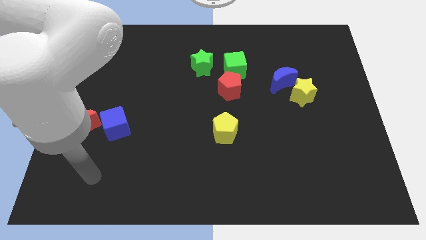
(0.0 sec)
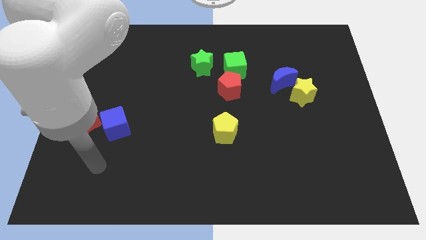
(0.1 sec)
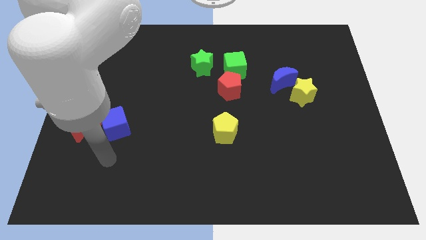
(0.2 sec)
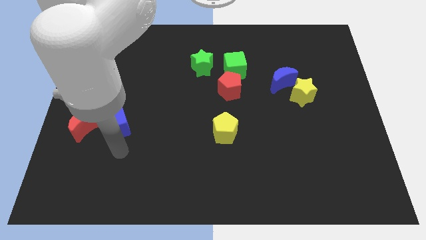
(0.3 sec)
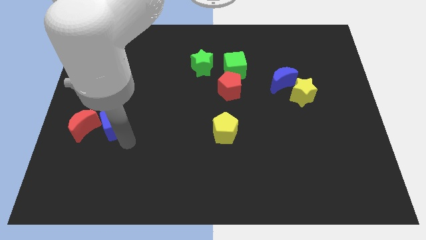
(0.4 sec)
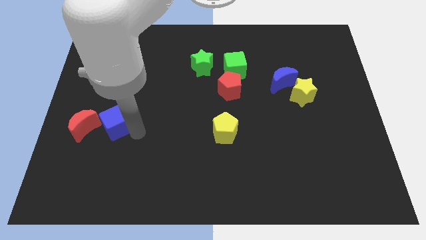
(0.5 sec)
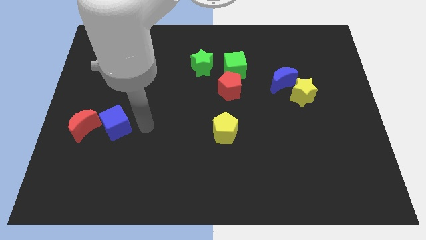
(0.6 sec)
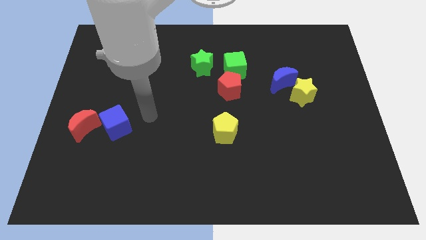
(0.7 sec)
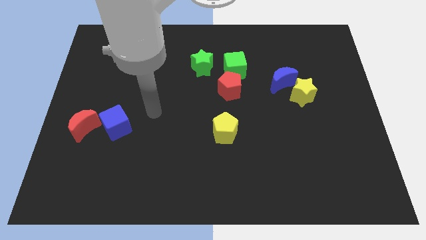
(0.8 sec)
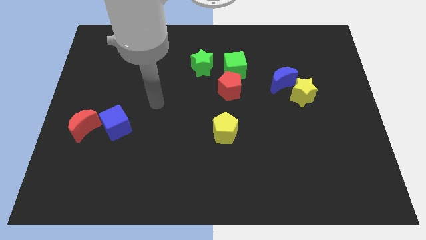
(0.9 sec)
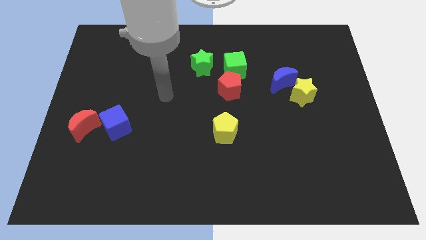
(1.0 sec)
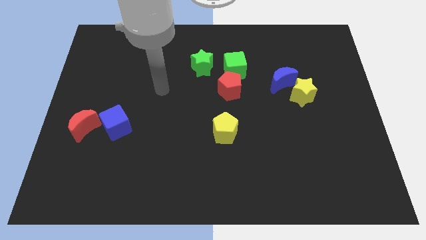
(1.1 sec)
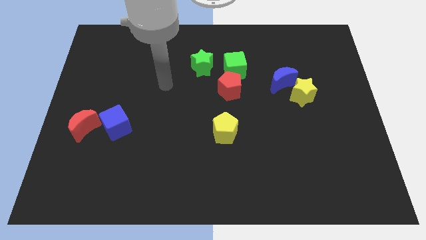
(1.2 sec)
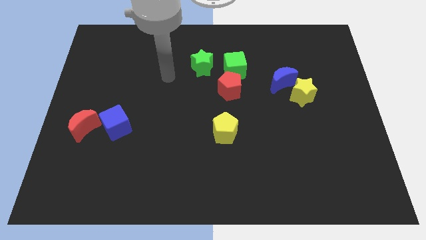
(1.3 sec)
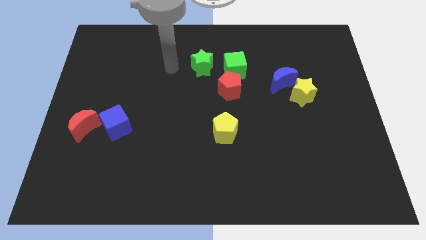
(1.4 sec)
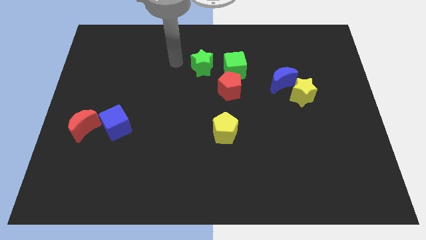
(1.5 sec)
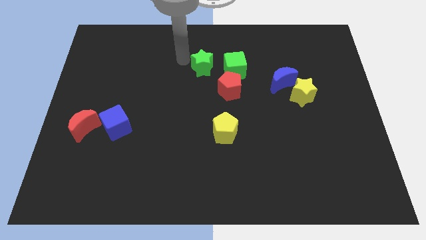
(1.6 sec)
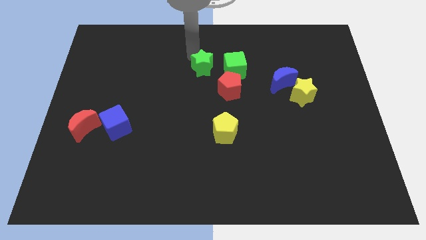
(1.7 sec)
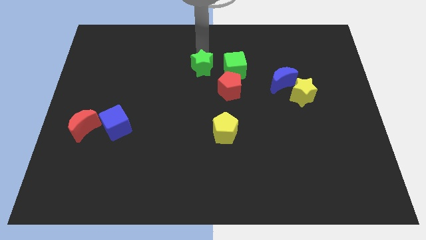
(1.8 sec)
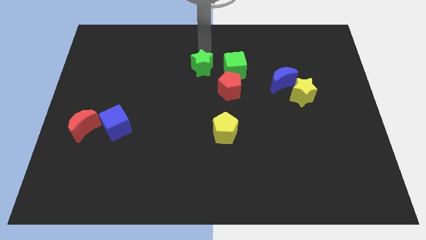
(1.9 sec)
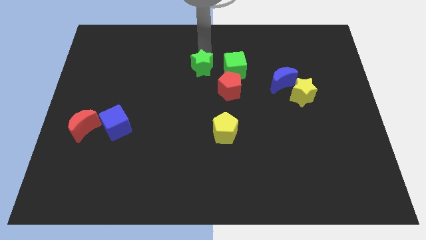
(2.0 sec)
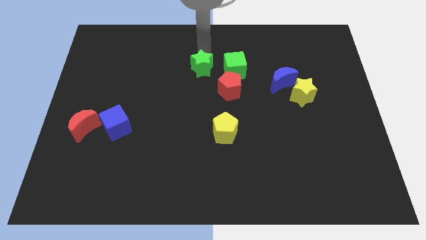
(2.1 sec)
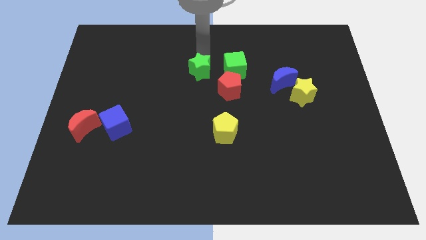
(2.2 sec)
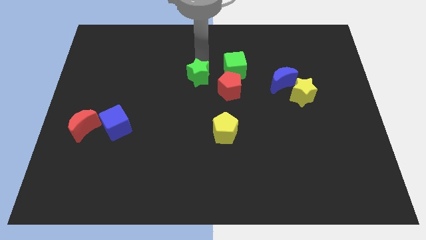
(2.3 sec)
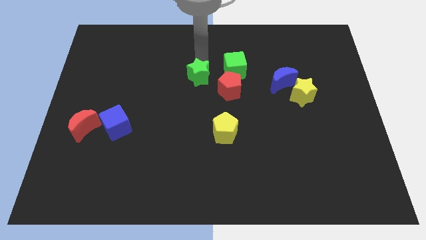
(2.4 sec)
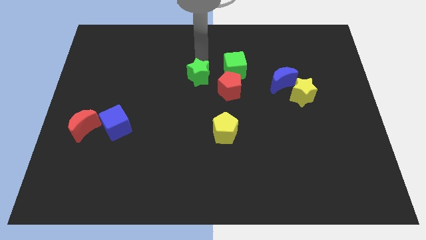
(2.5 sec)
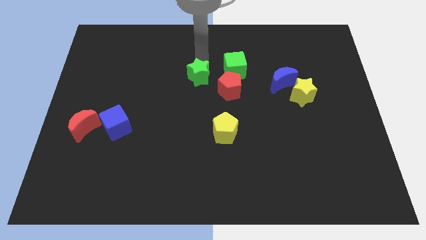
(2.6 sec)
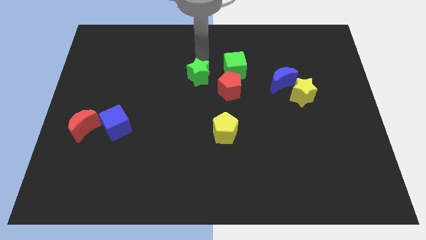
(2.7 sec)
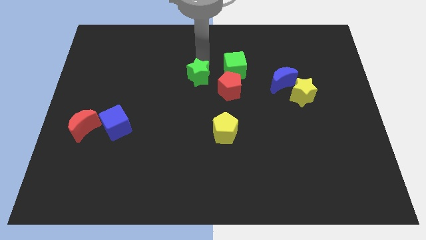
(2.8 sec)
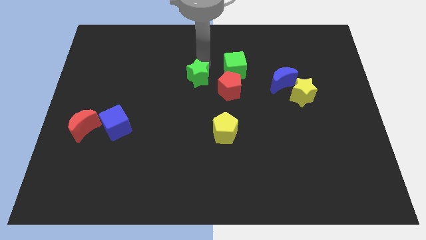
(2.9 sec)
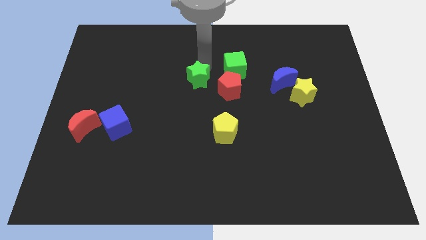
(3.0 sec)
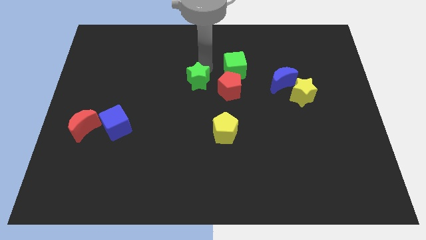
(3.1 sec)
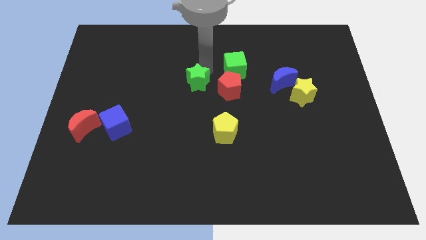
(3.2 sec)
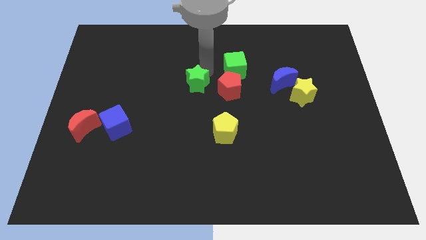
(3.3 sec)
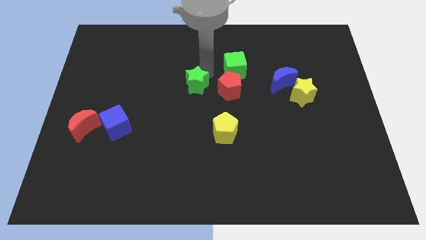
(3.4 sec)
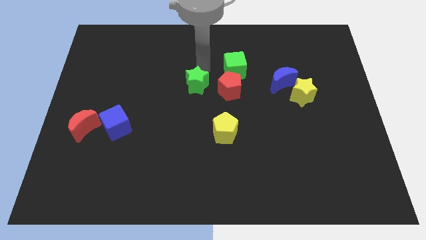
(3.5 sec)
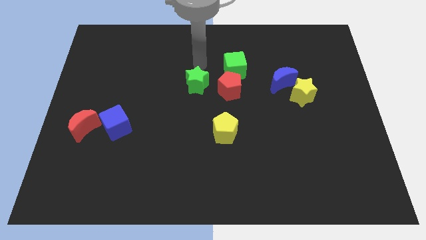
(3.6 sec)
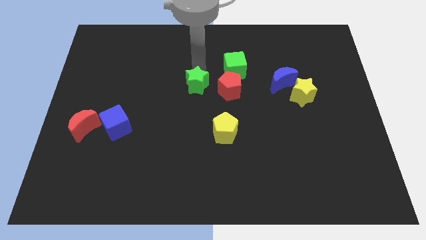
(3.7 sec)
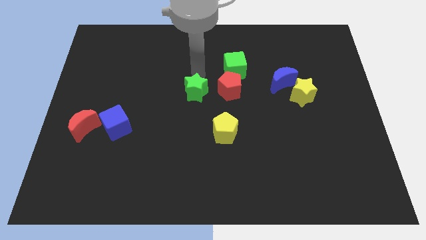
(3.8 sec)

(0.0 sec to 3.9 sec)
slightly push the green star downwards

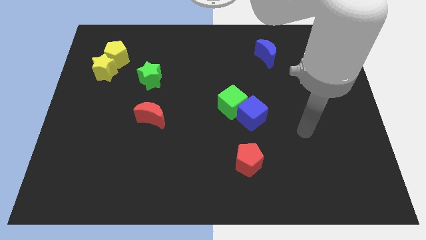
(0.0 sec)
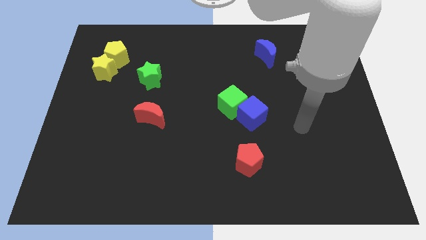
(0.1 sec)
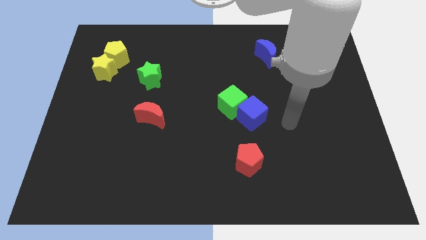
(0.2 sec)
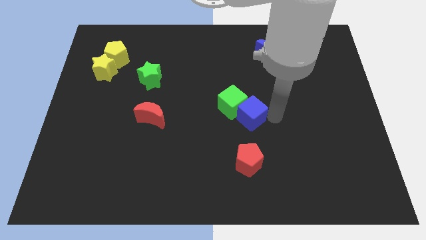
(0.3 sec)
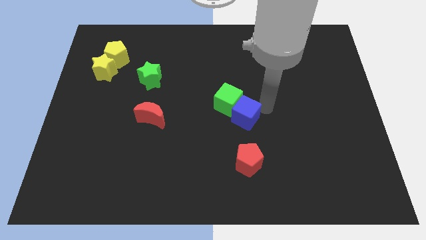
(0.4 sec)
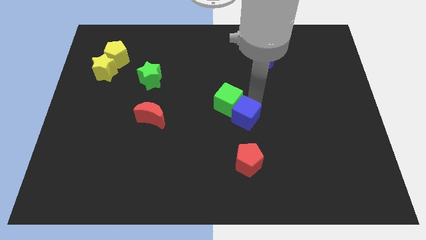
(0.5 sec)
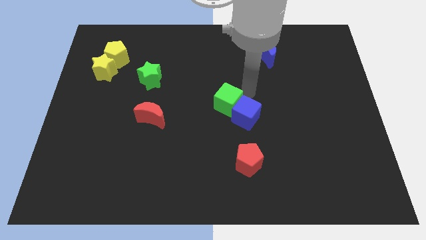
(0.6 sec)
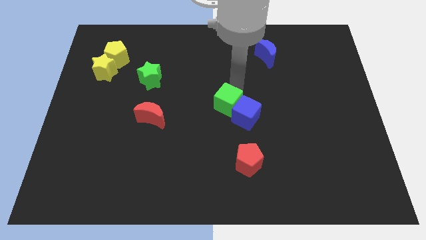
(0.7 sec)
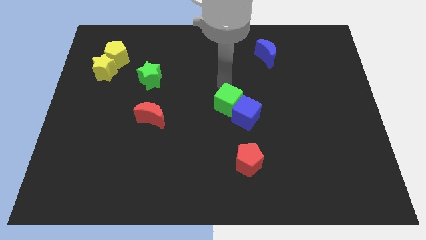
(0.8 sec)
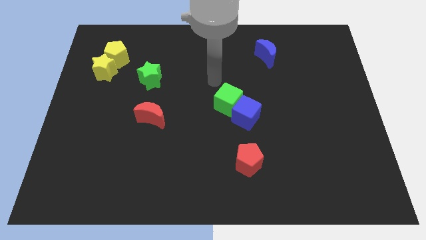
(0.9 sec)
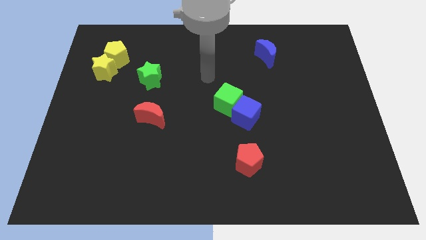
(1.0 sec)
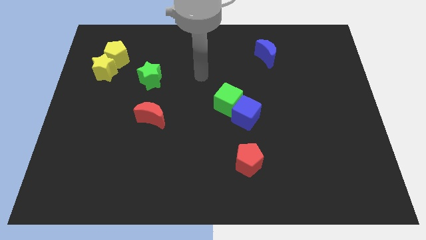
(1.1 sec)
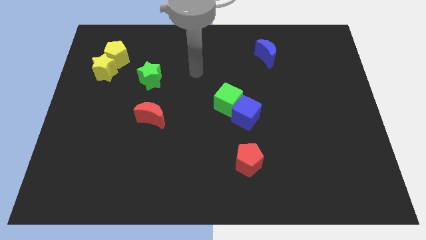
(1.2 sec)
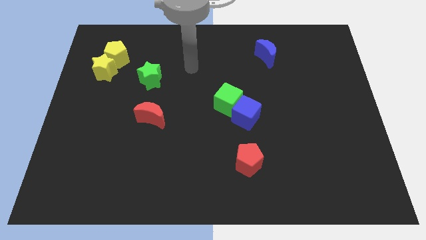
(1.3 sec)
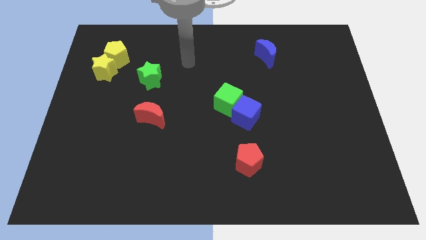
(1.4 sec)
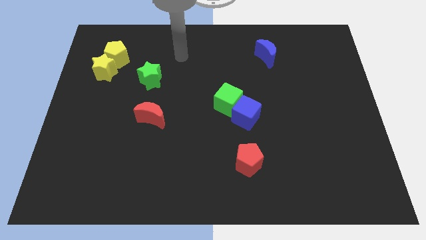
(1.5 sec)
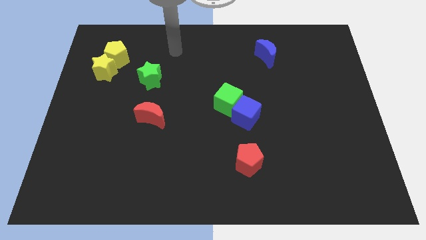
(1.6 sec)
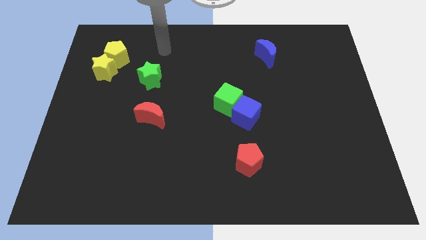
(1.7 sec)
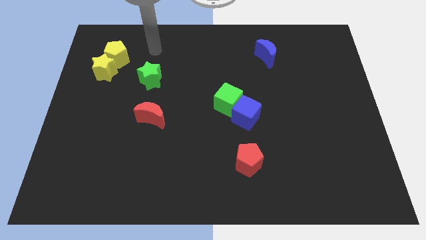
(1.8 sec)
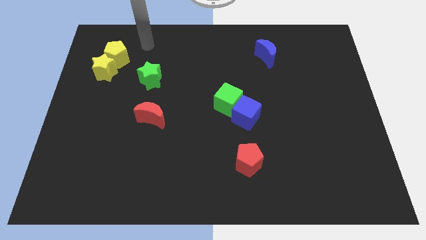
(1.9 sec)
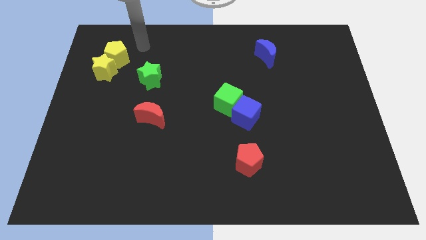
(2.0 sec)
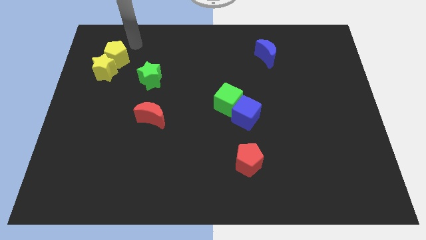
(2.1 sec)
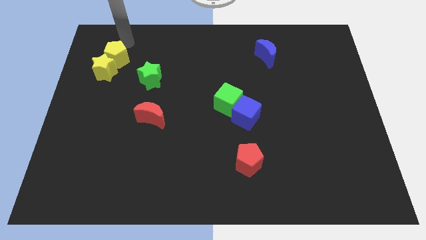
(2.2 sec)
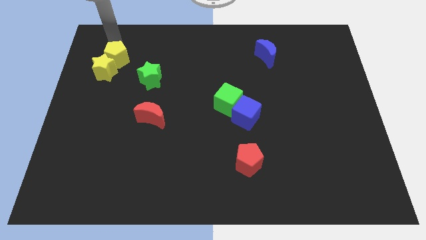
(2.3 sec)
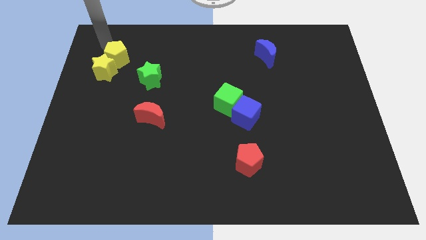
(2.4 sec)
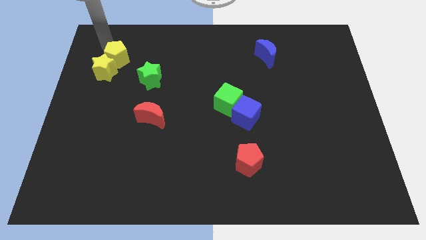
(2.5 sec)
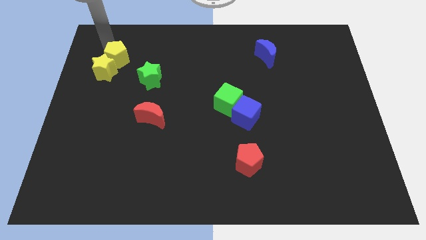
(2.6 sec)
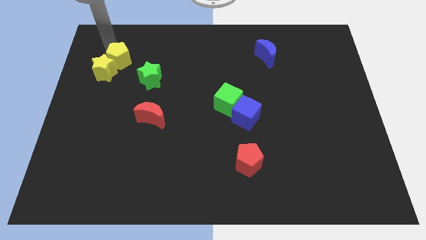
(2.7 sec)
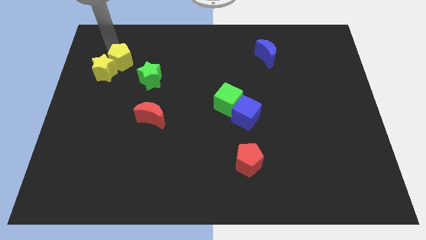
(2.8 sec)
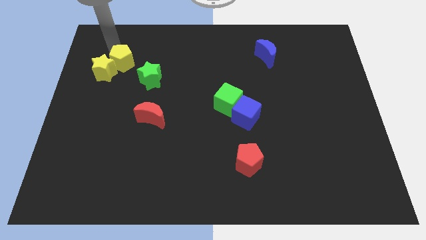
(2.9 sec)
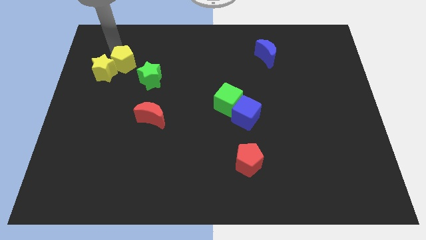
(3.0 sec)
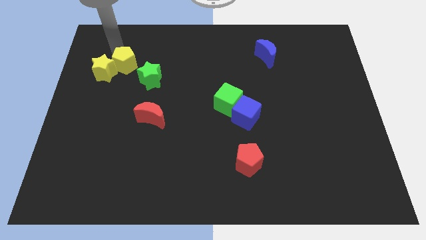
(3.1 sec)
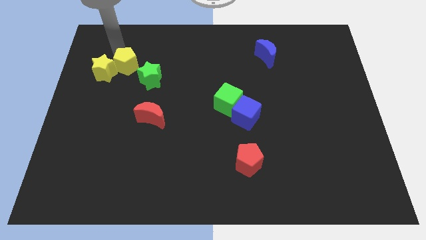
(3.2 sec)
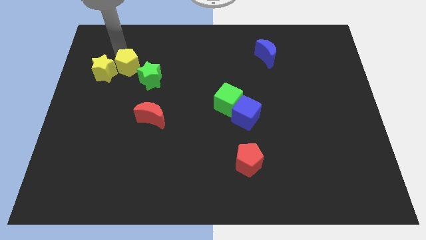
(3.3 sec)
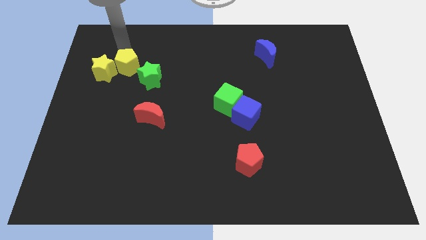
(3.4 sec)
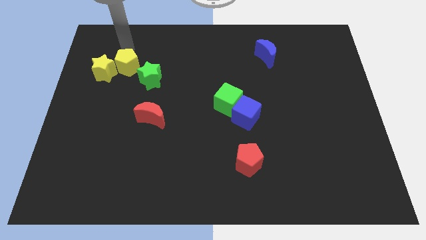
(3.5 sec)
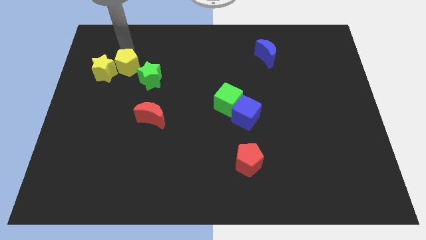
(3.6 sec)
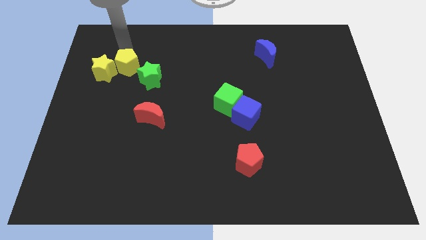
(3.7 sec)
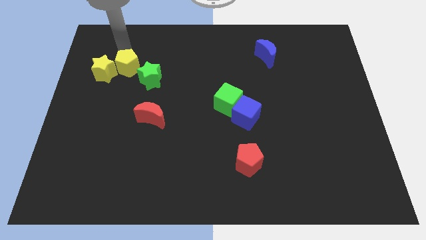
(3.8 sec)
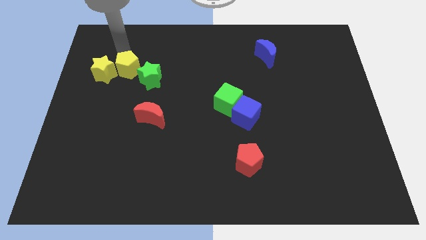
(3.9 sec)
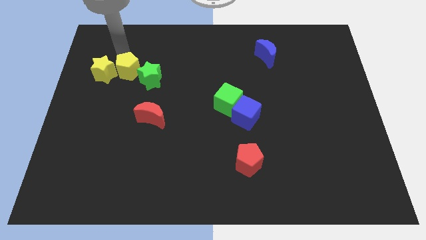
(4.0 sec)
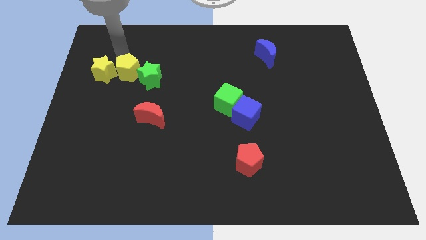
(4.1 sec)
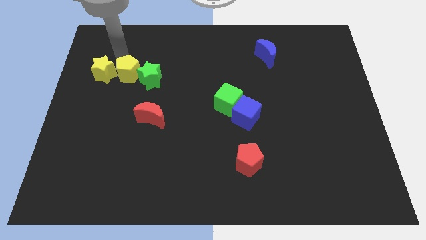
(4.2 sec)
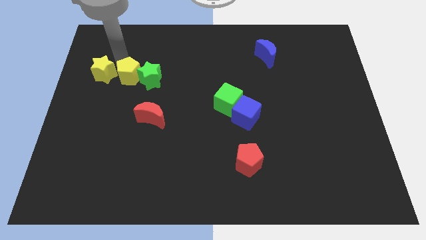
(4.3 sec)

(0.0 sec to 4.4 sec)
slightly push the yellow pentagon down and right diagonally
